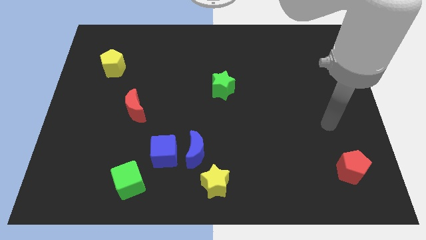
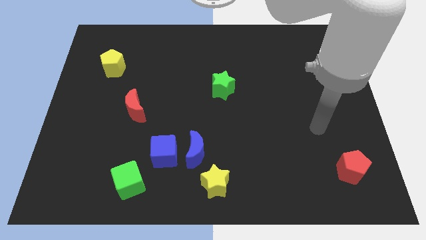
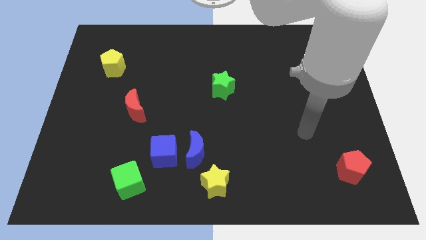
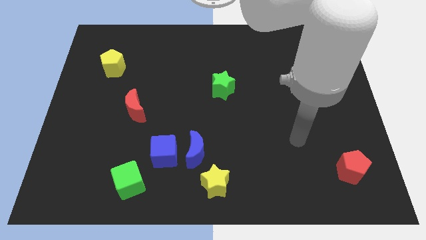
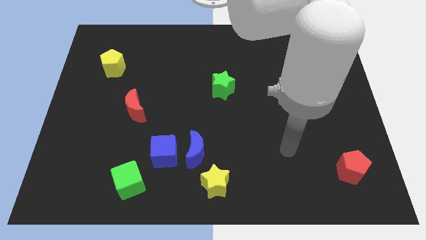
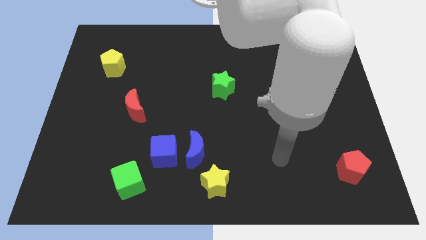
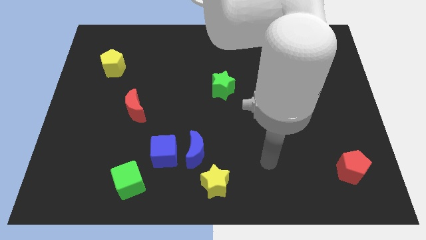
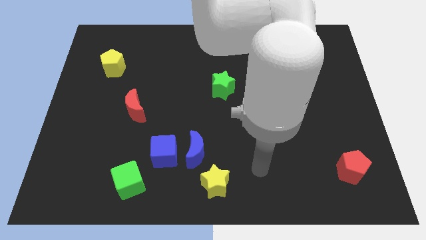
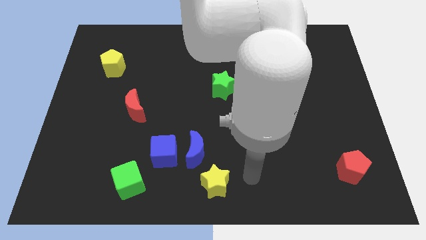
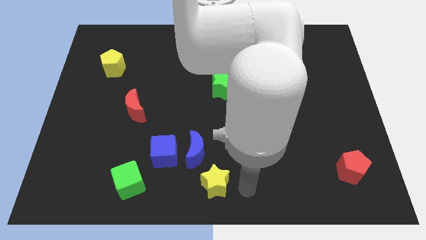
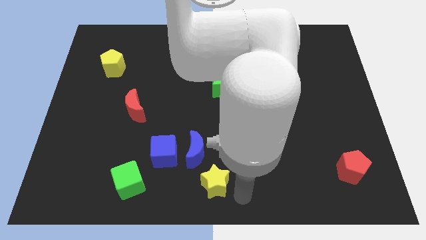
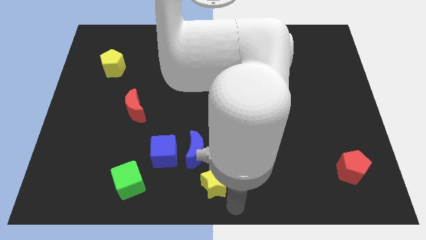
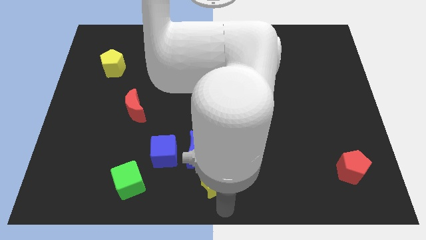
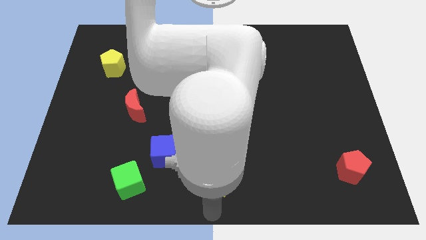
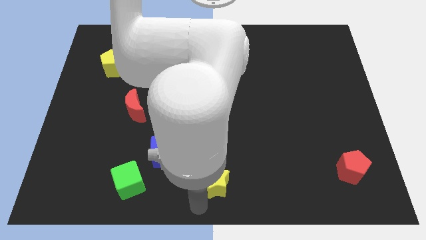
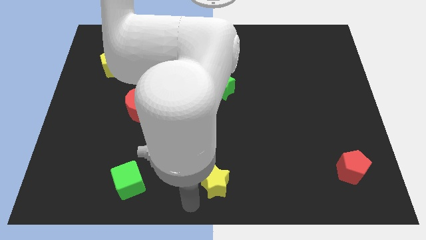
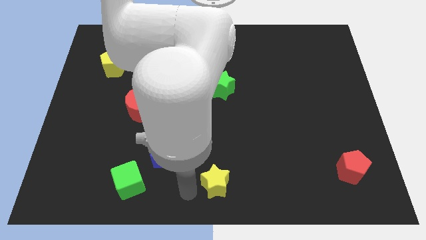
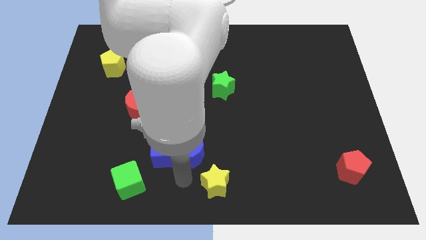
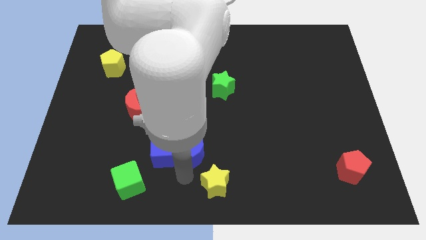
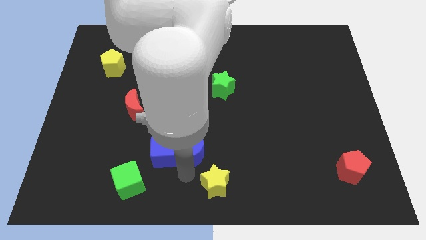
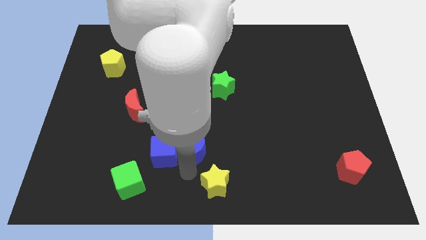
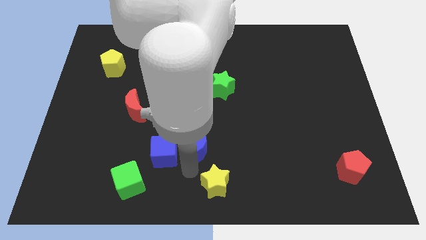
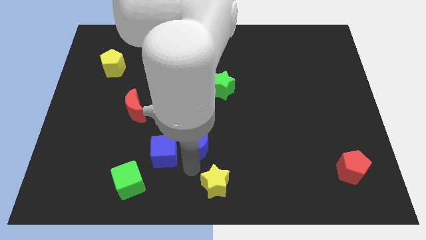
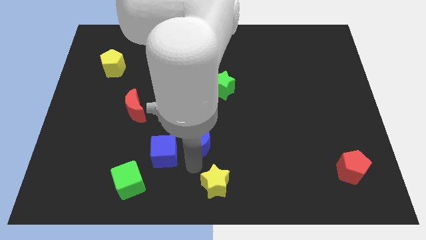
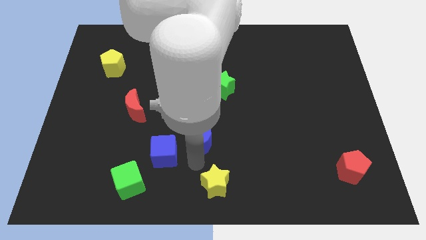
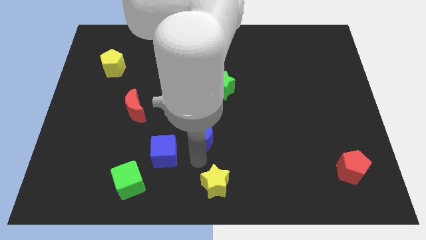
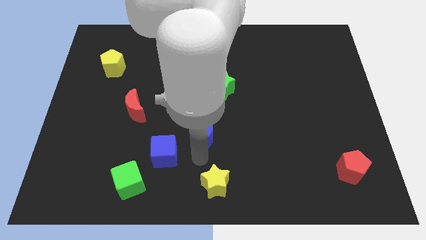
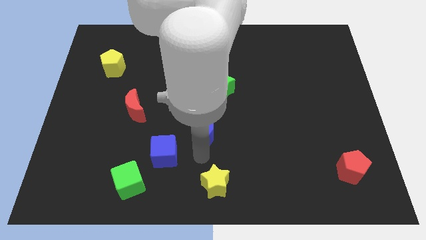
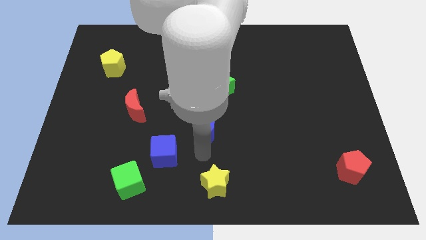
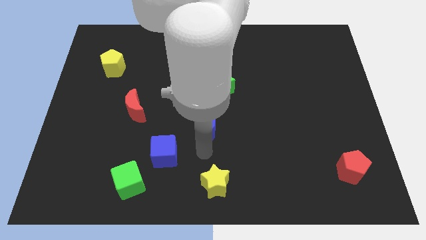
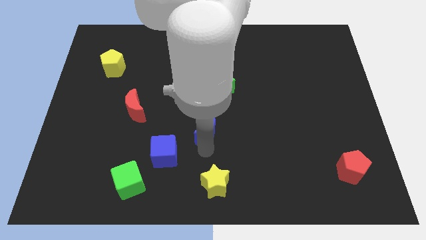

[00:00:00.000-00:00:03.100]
separate the blue moon from the blue cube and yellow star

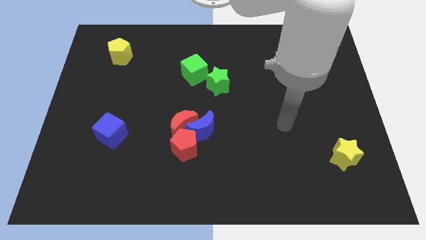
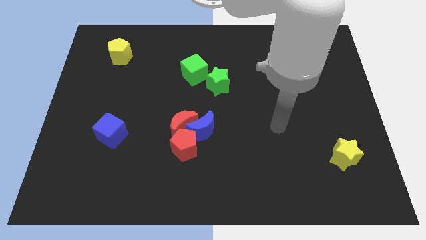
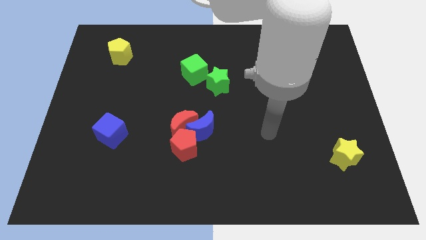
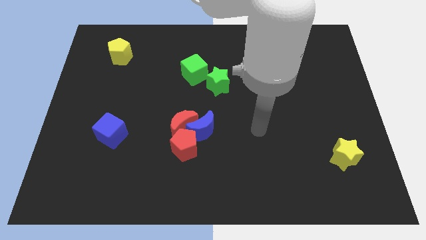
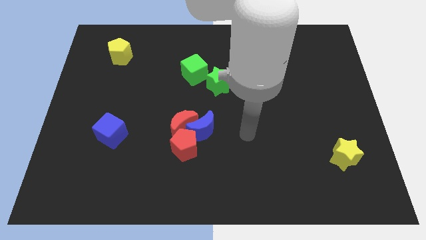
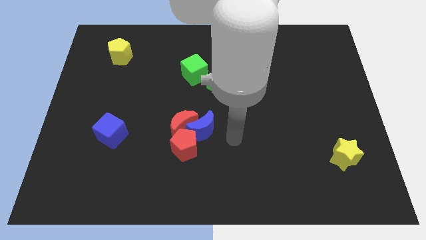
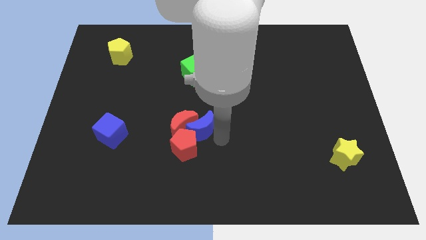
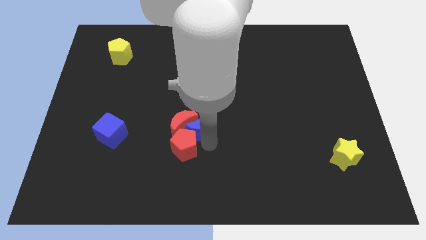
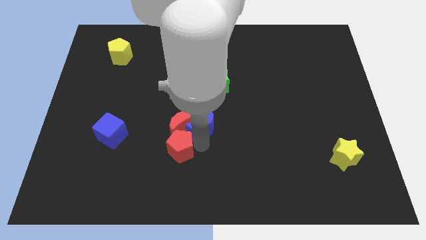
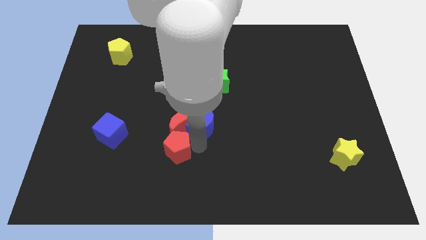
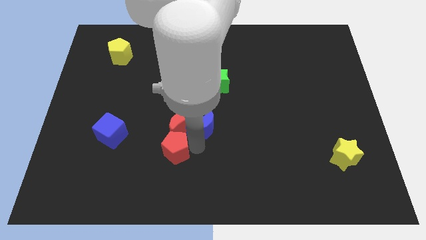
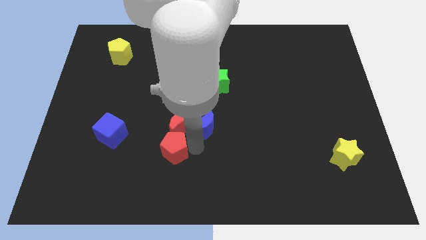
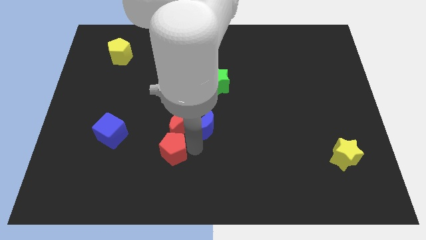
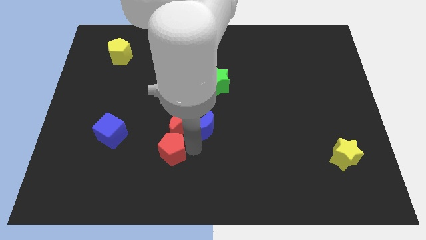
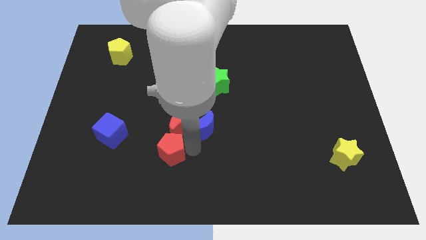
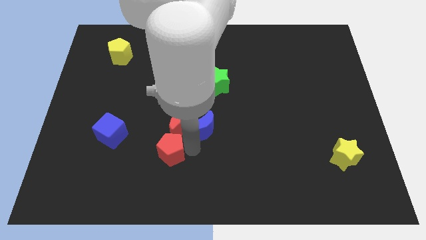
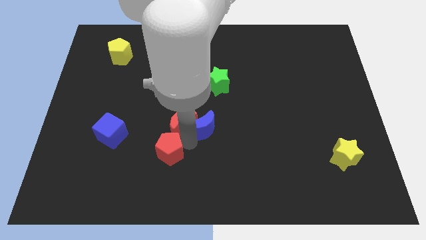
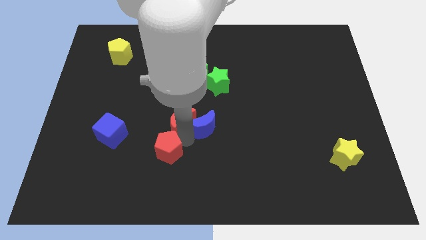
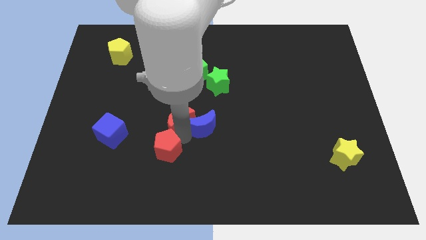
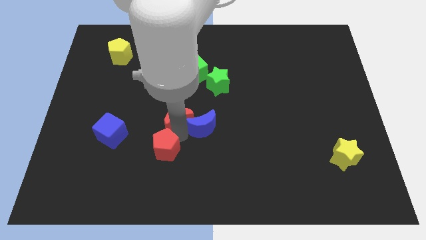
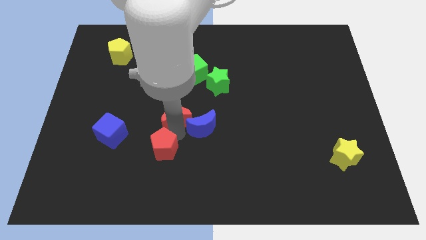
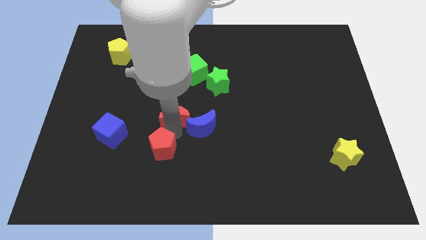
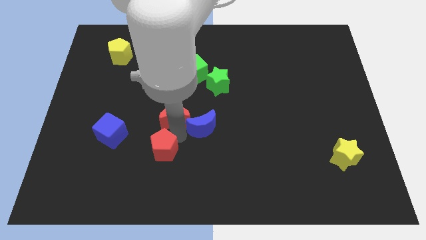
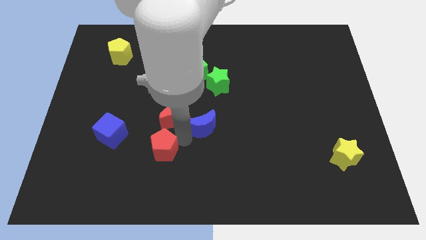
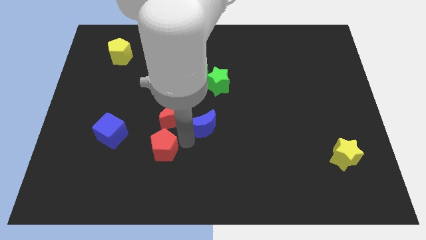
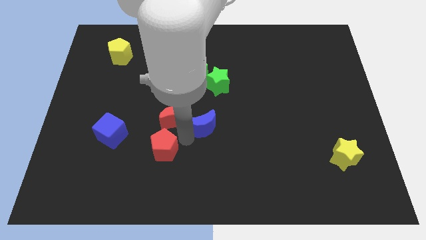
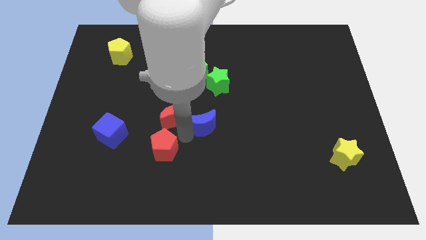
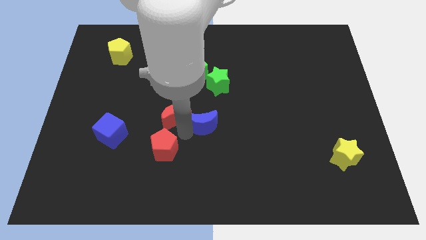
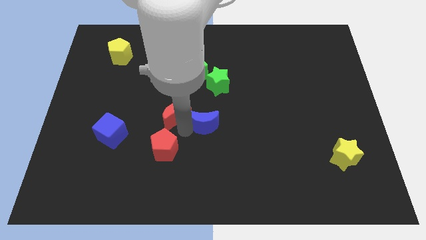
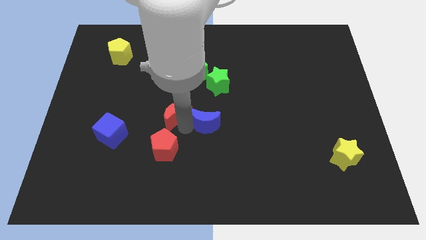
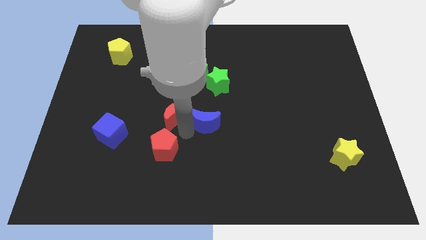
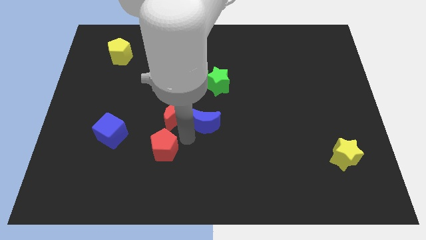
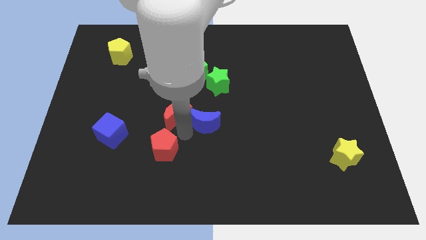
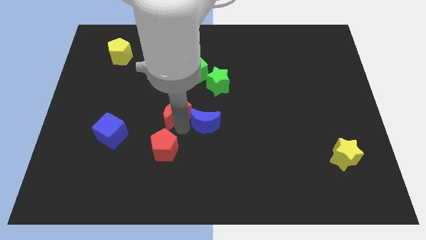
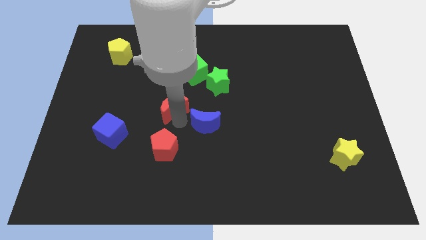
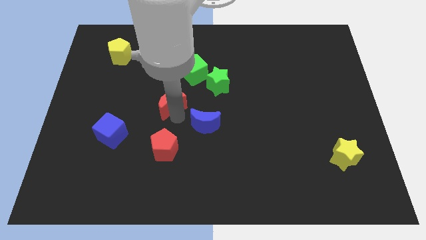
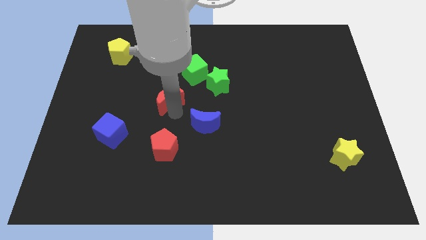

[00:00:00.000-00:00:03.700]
separate the red moon from the blue moon and red pentagon

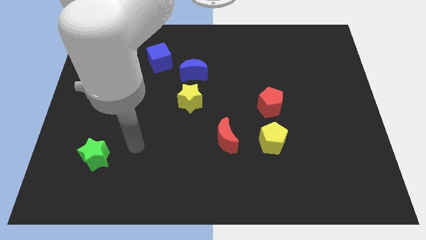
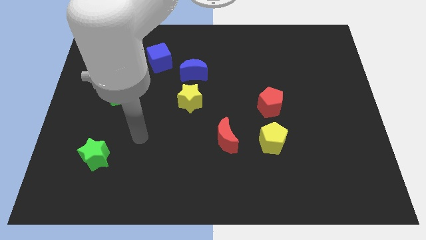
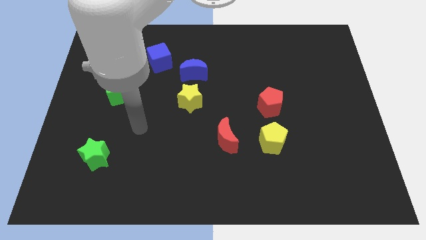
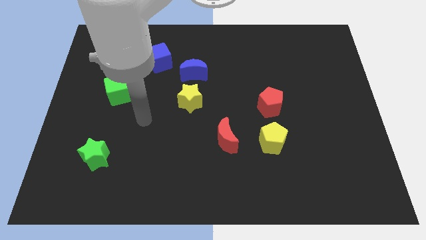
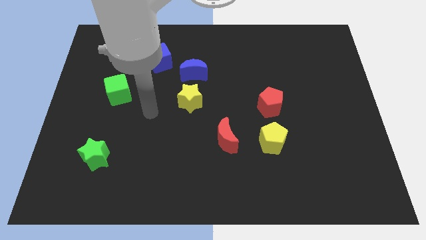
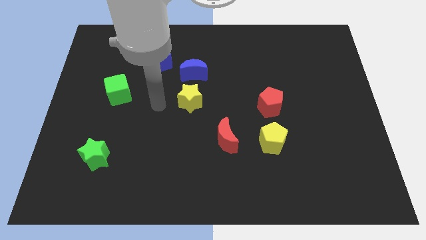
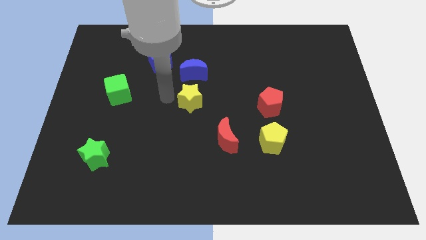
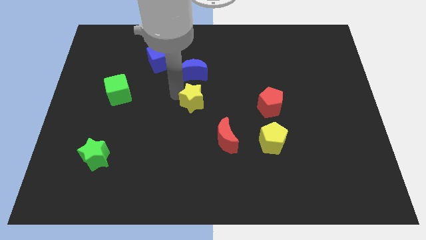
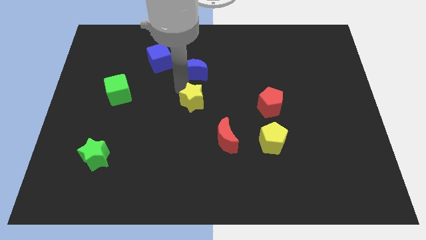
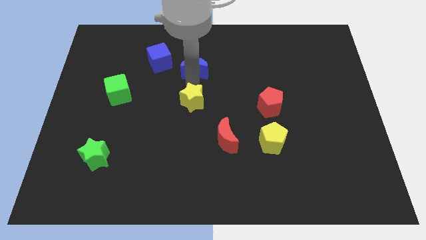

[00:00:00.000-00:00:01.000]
separate the yellow star from the blue moon

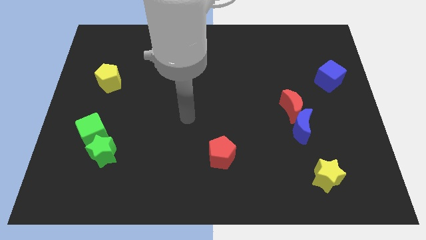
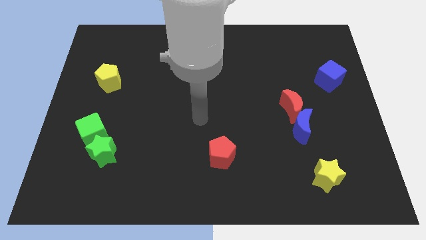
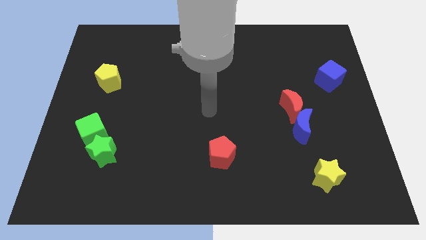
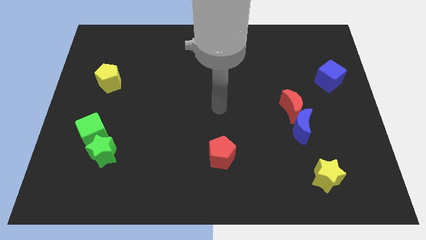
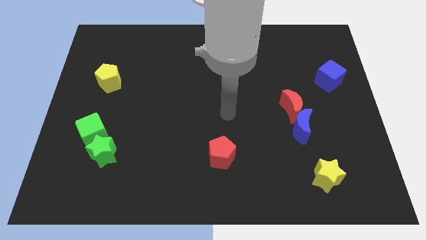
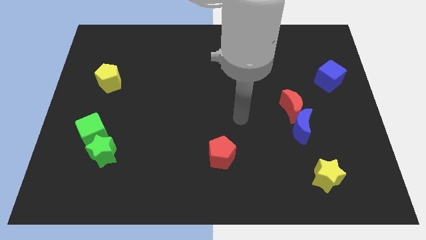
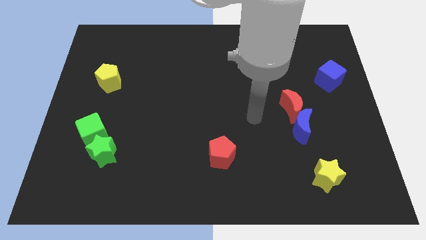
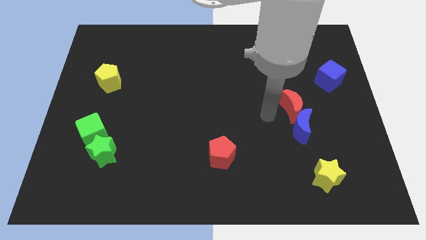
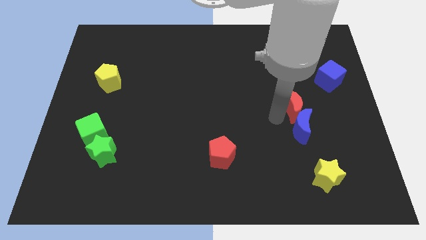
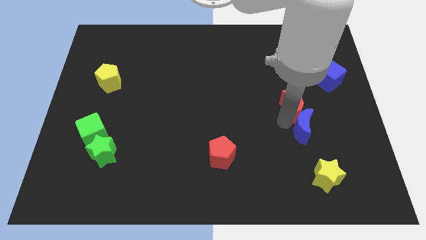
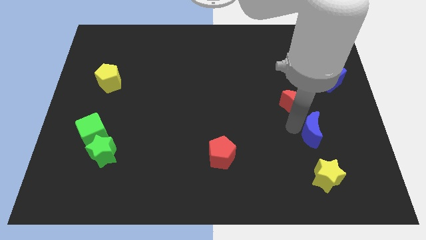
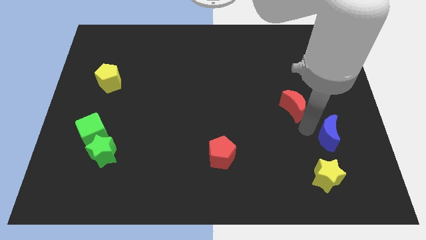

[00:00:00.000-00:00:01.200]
pull the red moon apart from the blue moon

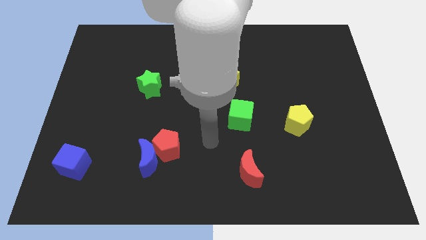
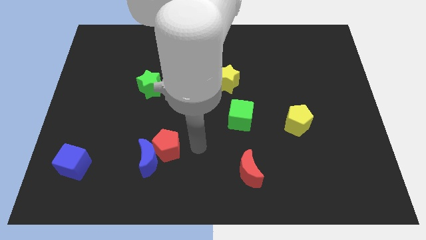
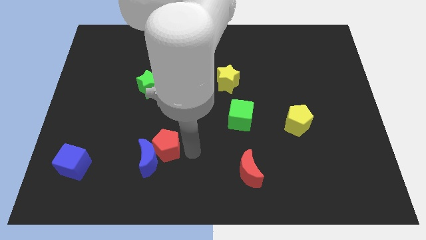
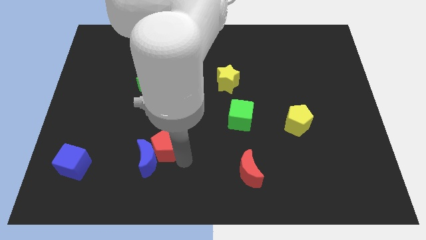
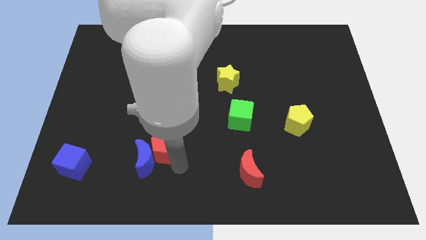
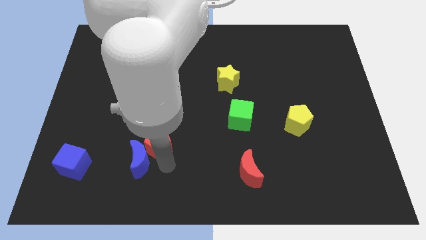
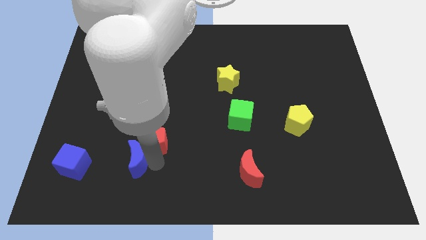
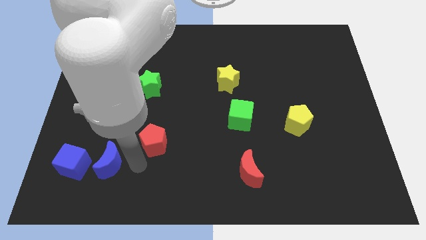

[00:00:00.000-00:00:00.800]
move the red pentagon away from the blue moon
